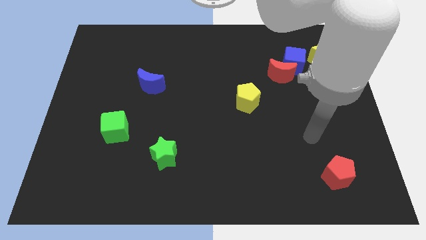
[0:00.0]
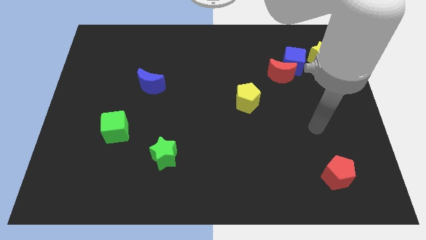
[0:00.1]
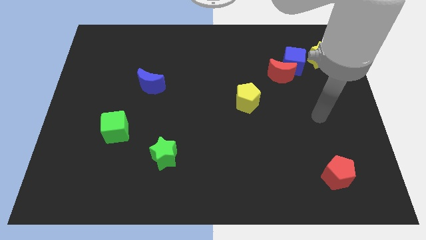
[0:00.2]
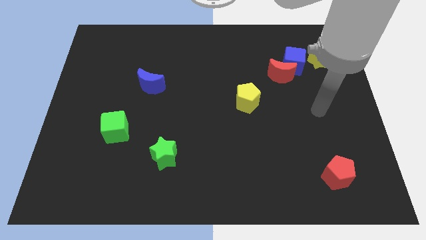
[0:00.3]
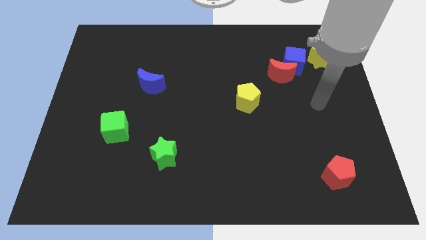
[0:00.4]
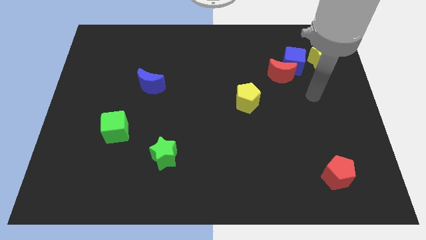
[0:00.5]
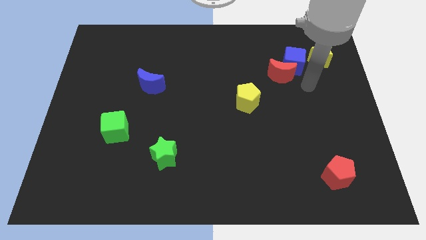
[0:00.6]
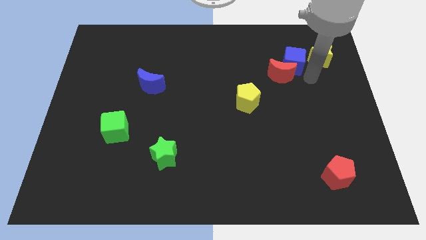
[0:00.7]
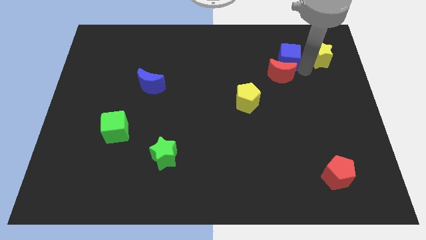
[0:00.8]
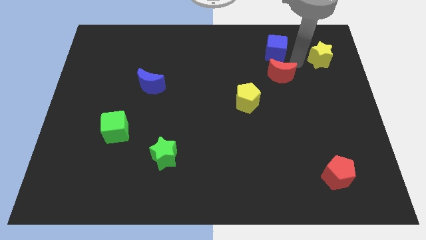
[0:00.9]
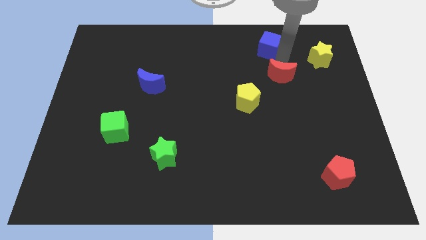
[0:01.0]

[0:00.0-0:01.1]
move the red moon away from the blue cube

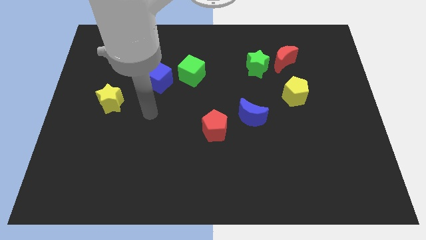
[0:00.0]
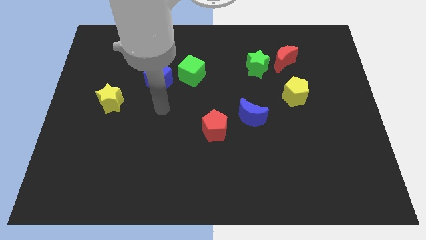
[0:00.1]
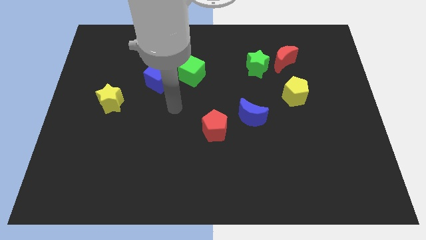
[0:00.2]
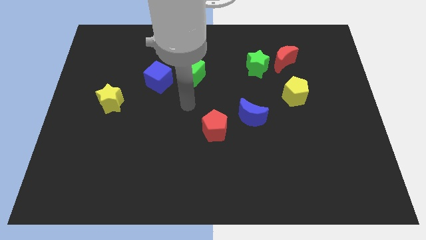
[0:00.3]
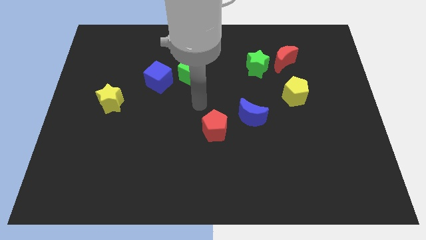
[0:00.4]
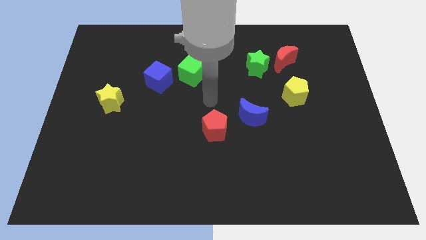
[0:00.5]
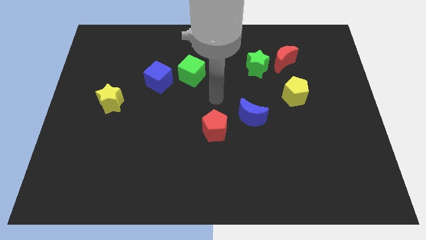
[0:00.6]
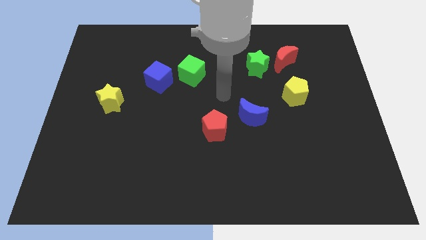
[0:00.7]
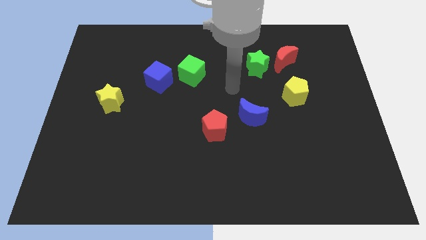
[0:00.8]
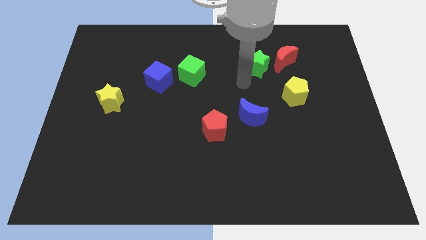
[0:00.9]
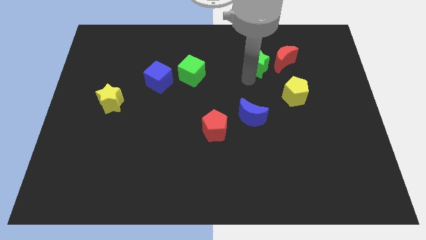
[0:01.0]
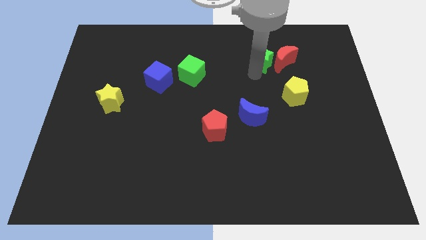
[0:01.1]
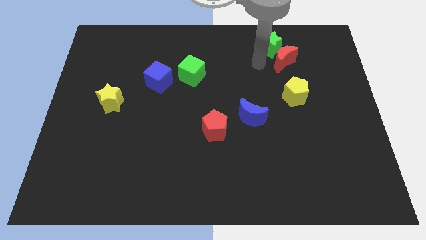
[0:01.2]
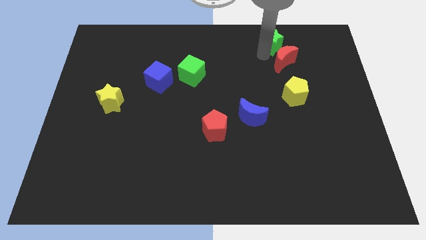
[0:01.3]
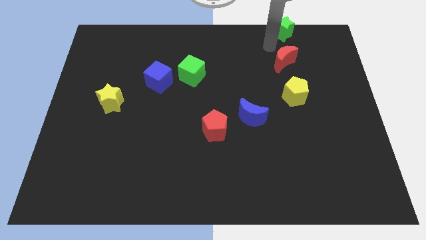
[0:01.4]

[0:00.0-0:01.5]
move the red moon away from the green star

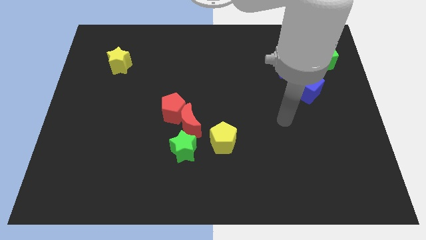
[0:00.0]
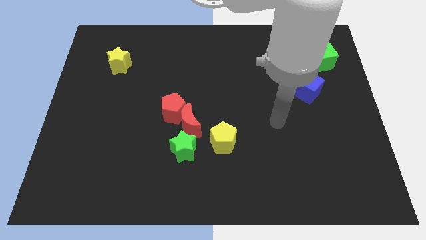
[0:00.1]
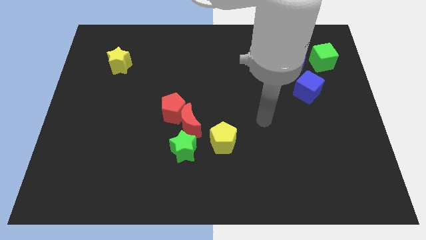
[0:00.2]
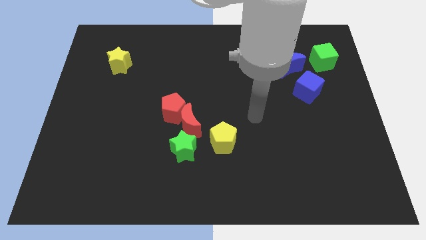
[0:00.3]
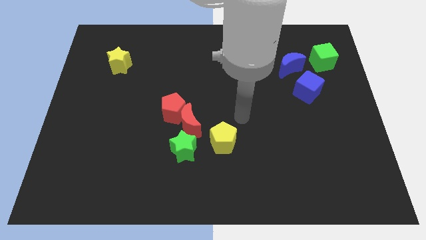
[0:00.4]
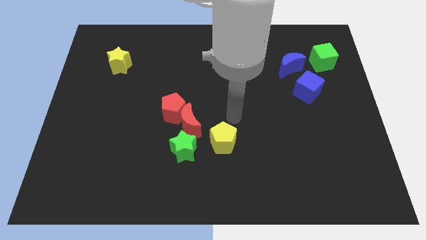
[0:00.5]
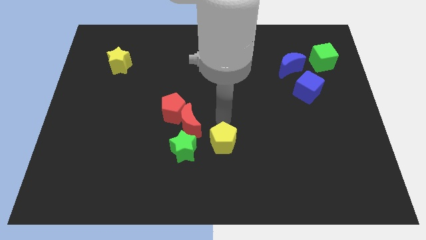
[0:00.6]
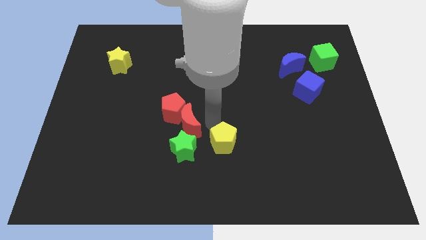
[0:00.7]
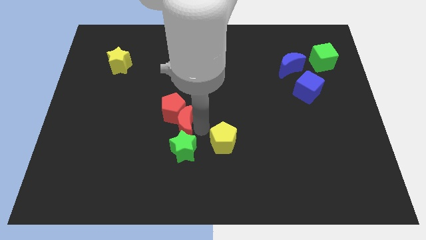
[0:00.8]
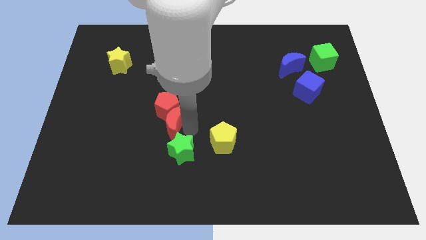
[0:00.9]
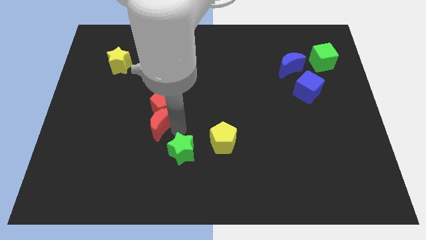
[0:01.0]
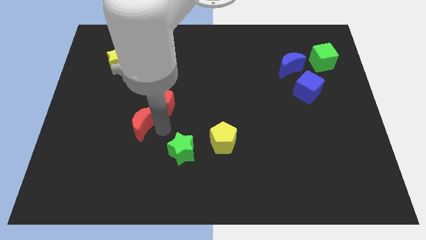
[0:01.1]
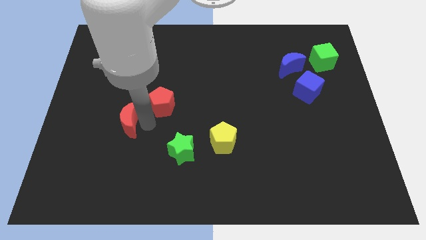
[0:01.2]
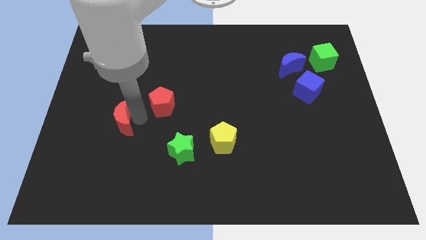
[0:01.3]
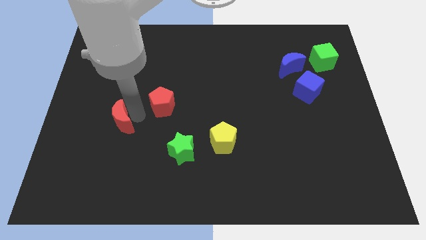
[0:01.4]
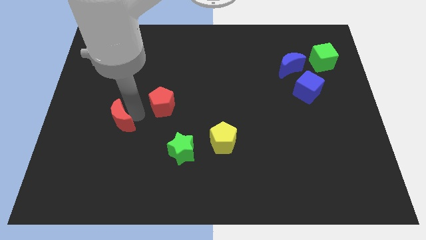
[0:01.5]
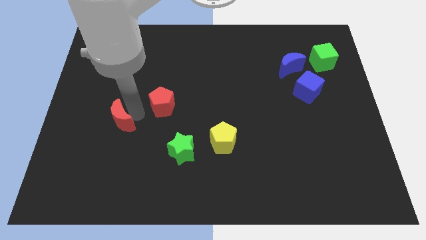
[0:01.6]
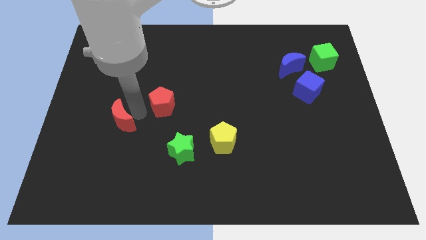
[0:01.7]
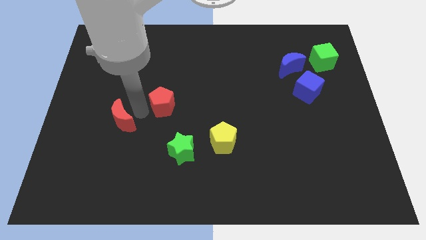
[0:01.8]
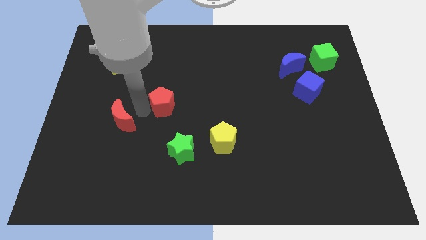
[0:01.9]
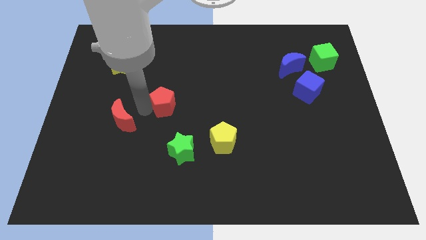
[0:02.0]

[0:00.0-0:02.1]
move the red pentagon away from the red moon

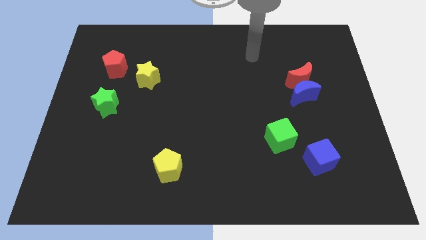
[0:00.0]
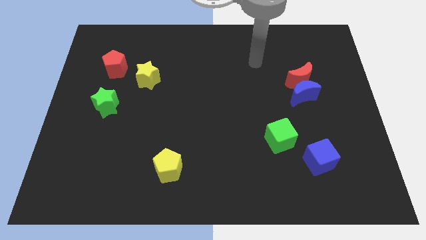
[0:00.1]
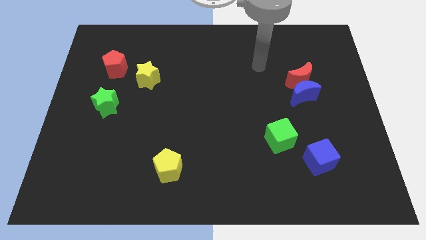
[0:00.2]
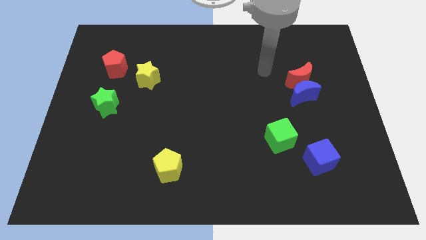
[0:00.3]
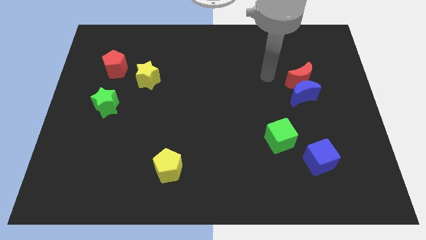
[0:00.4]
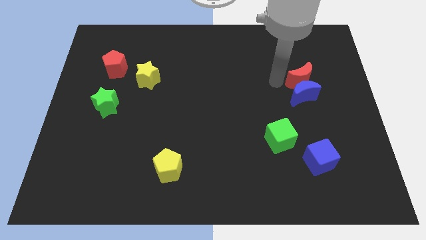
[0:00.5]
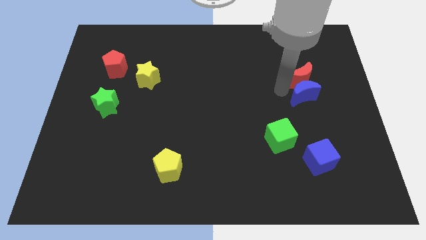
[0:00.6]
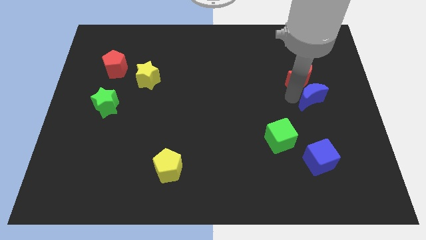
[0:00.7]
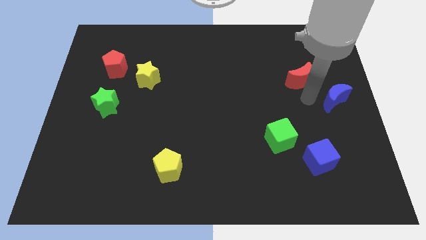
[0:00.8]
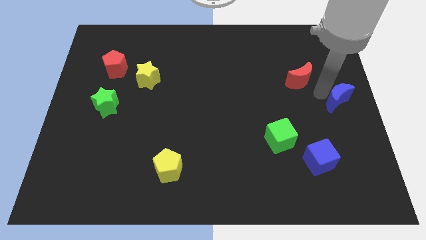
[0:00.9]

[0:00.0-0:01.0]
move the red moon away from the blue moon

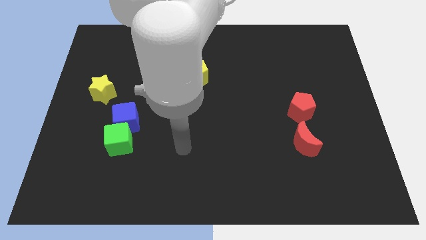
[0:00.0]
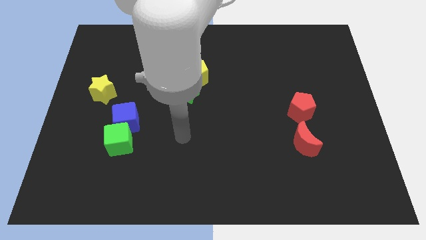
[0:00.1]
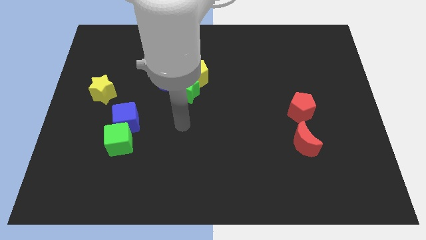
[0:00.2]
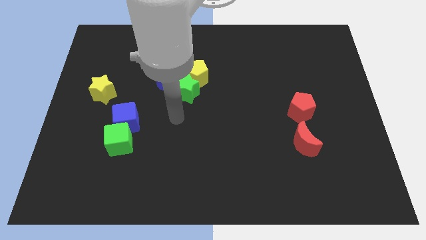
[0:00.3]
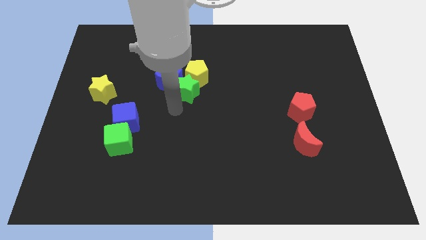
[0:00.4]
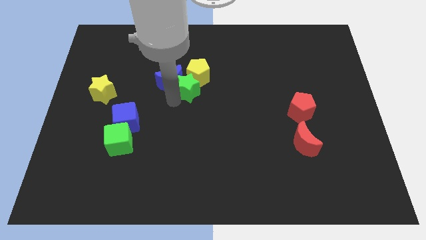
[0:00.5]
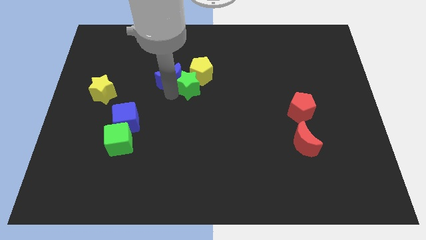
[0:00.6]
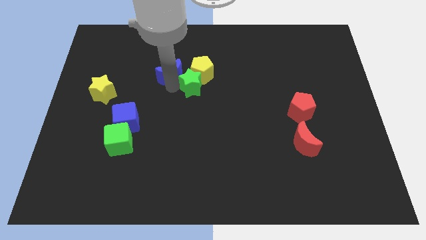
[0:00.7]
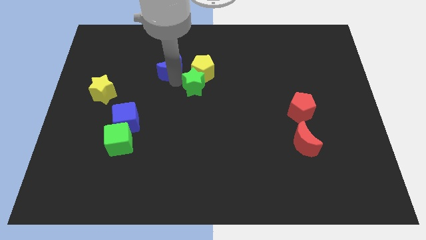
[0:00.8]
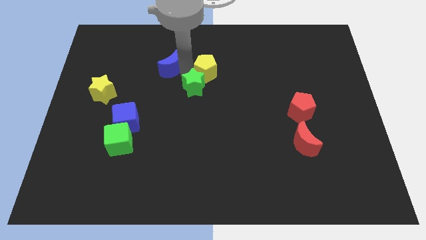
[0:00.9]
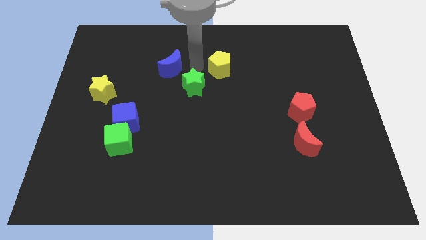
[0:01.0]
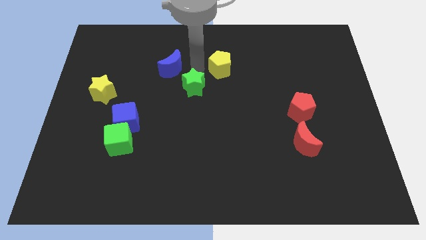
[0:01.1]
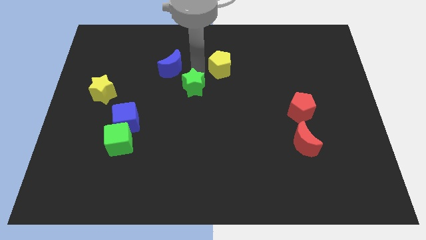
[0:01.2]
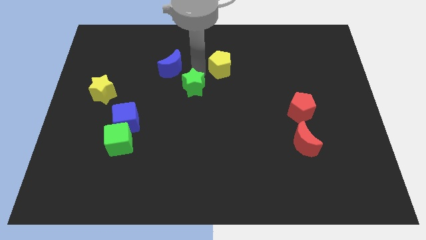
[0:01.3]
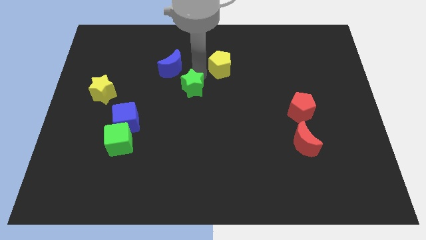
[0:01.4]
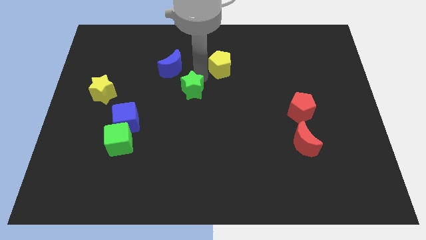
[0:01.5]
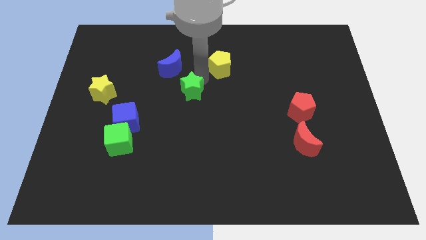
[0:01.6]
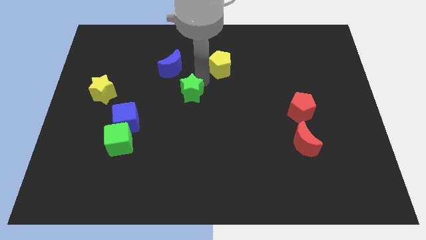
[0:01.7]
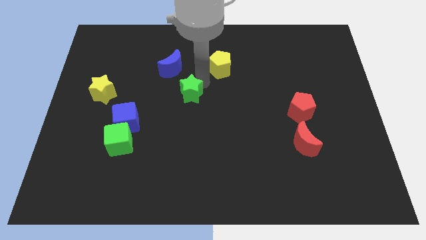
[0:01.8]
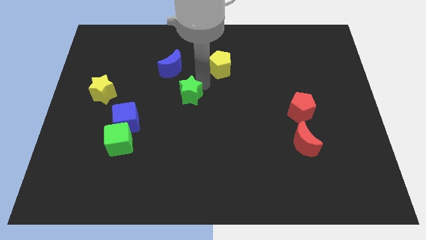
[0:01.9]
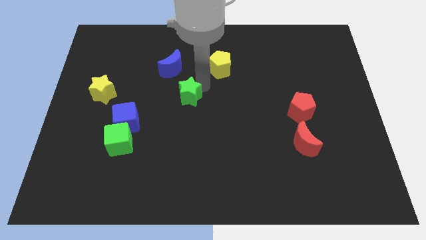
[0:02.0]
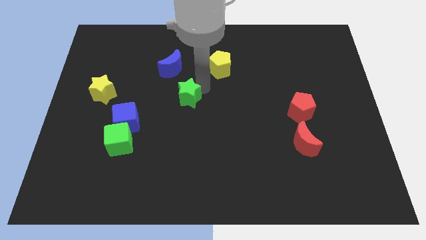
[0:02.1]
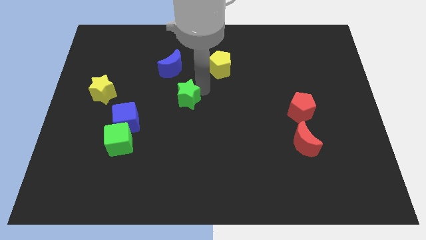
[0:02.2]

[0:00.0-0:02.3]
pull the green star apart from the blue moon and yellow pentagon

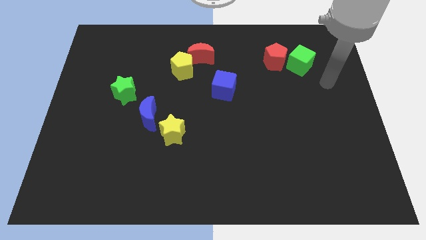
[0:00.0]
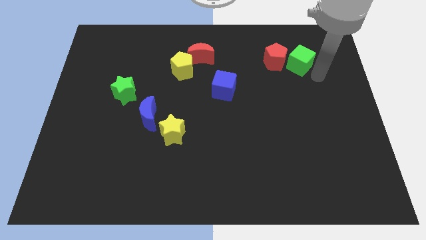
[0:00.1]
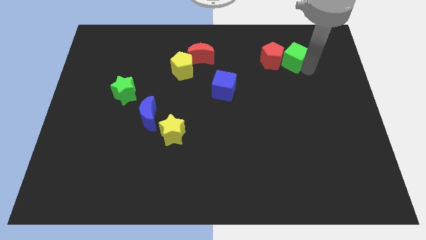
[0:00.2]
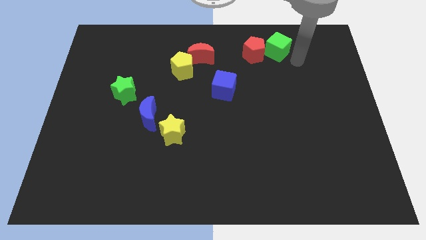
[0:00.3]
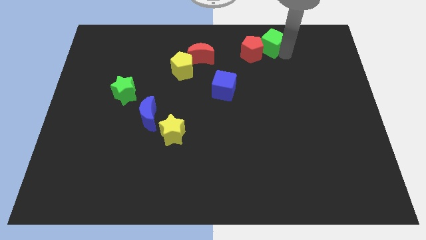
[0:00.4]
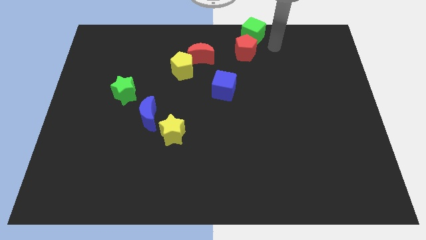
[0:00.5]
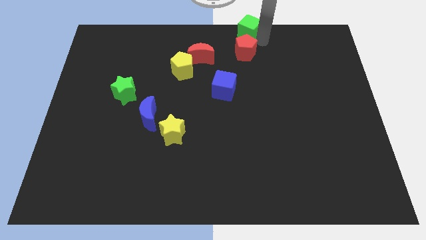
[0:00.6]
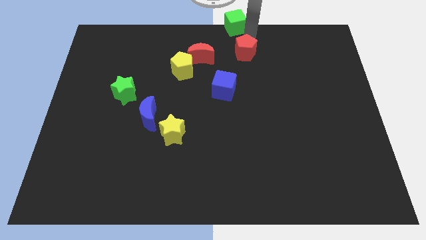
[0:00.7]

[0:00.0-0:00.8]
separate the red pentagon from the green cube

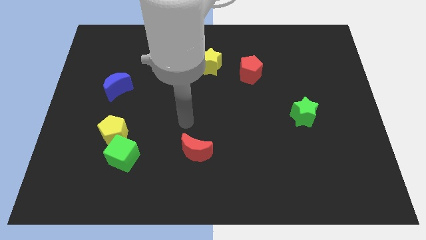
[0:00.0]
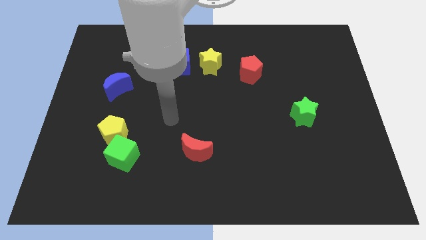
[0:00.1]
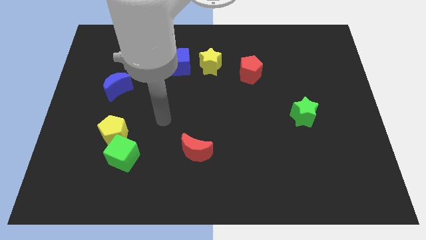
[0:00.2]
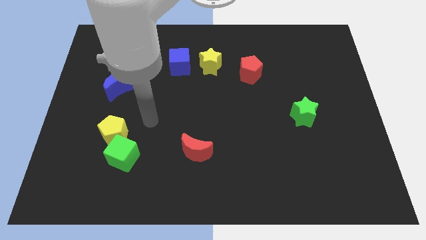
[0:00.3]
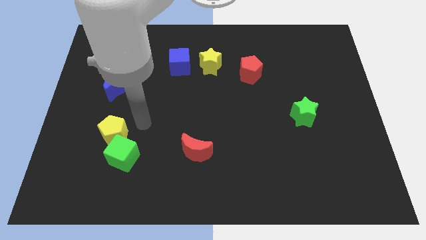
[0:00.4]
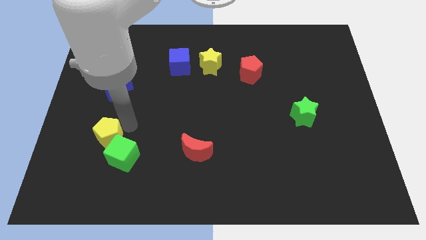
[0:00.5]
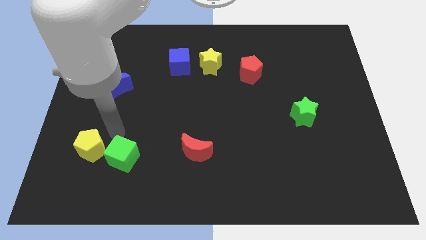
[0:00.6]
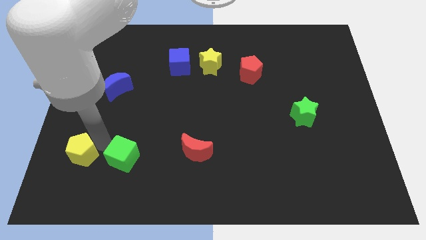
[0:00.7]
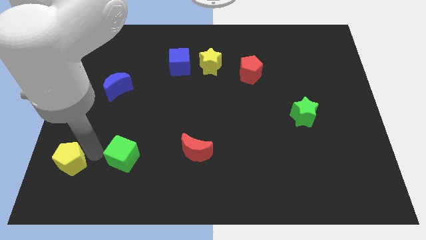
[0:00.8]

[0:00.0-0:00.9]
separate the green cube from the yellow pentagon
